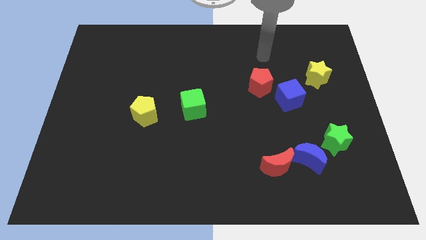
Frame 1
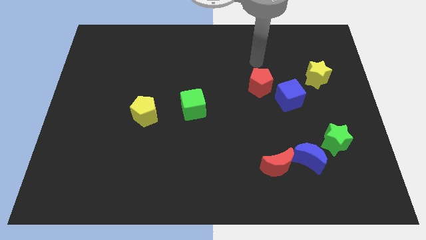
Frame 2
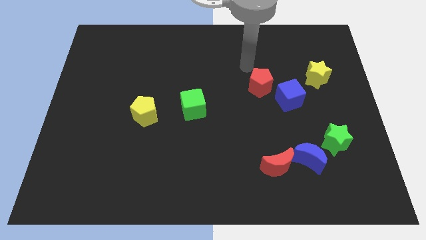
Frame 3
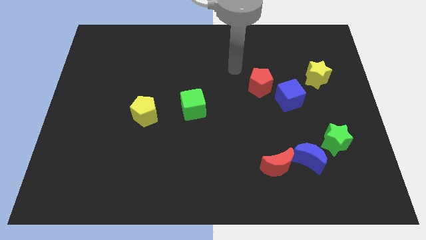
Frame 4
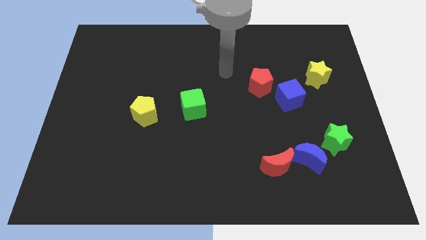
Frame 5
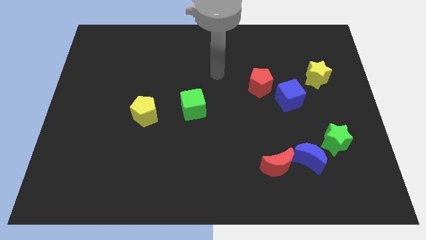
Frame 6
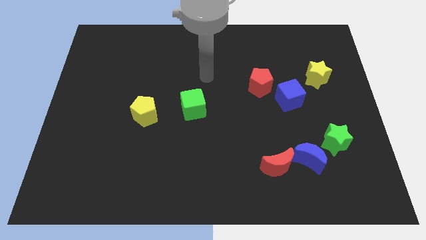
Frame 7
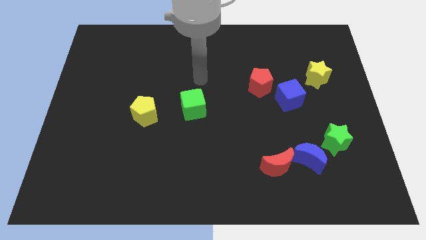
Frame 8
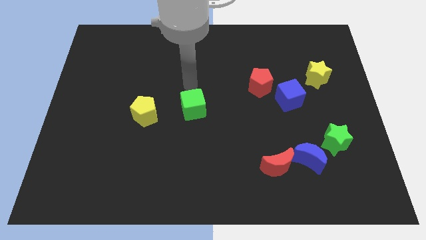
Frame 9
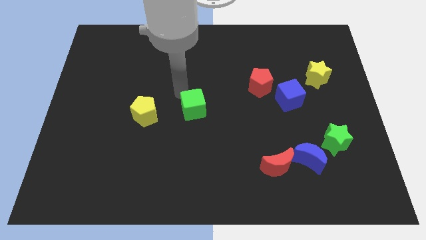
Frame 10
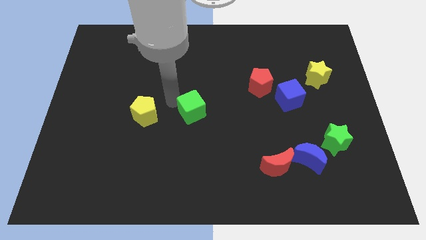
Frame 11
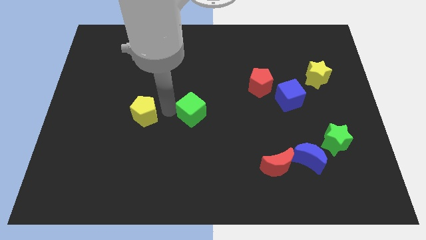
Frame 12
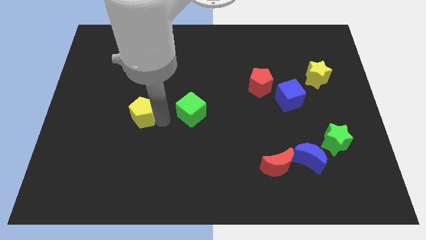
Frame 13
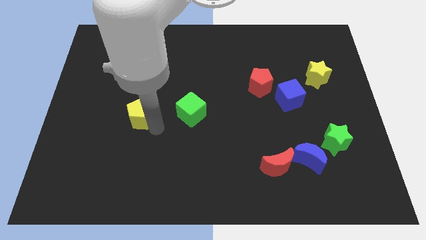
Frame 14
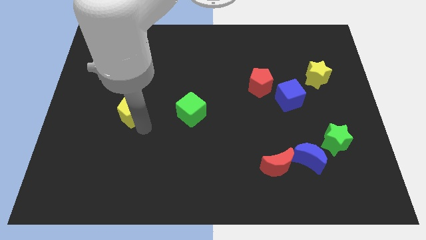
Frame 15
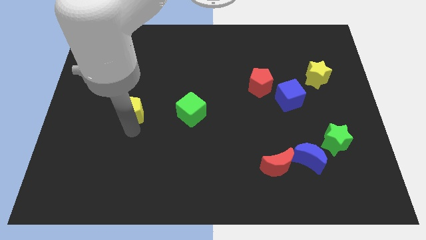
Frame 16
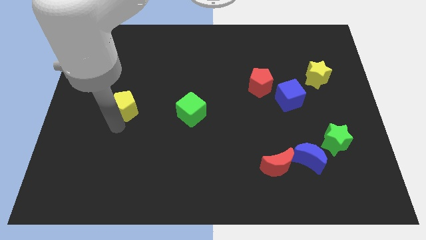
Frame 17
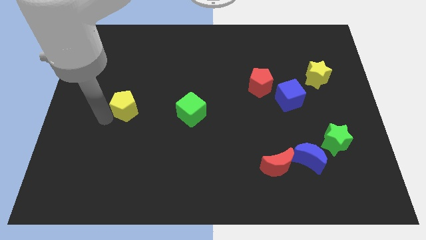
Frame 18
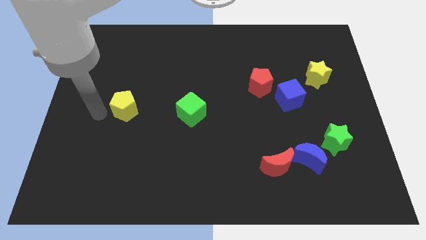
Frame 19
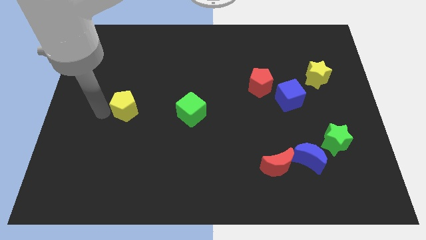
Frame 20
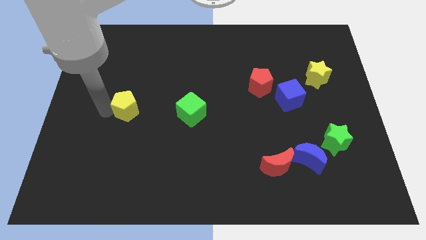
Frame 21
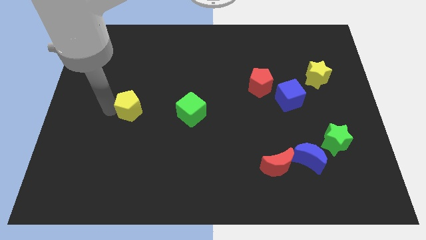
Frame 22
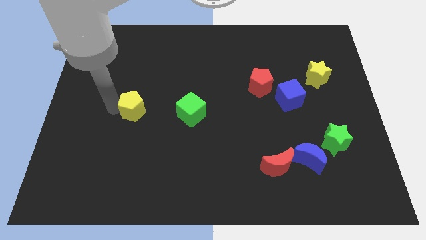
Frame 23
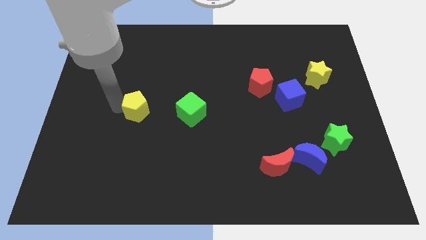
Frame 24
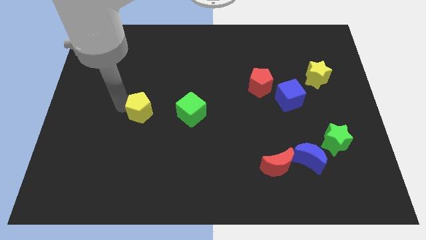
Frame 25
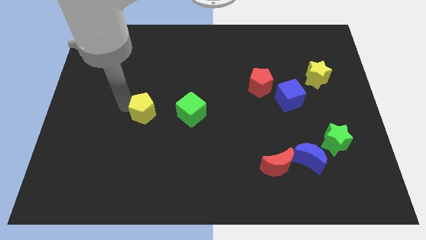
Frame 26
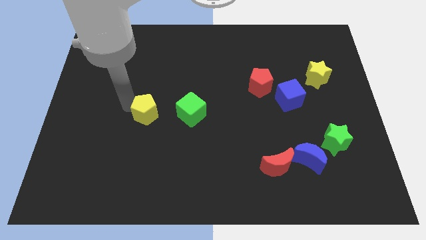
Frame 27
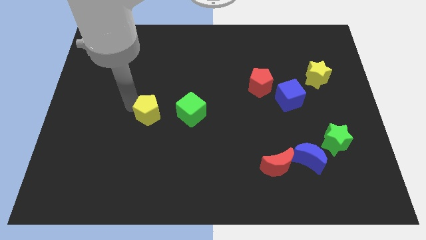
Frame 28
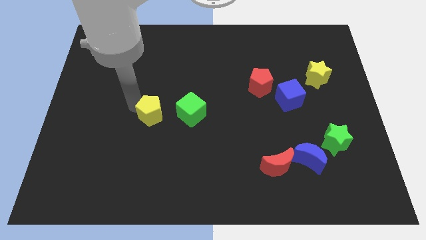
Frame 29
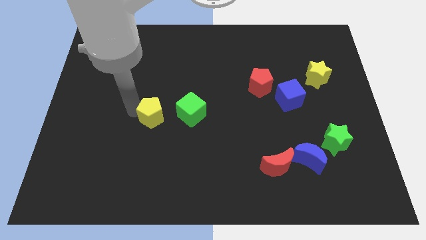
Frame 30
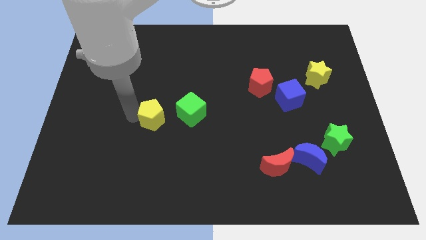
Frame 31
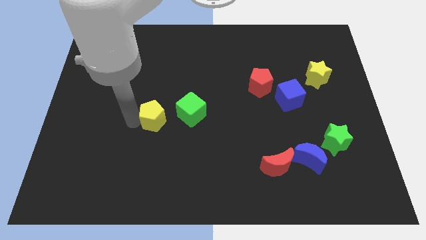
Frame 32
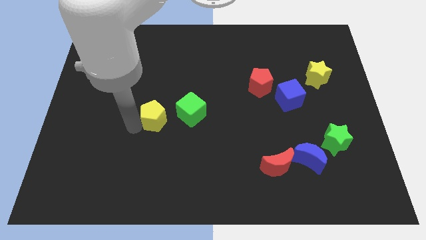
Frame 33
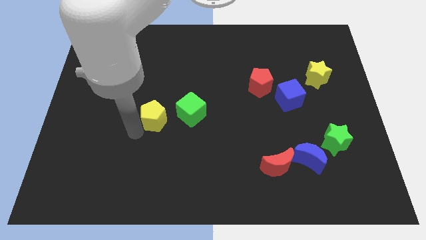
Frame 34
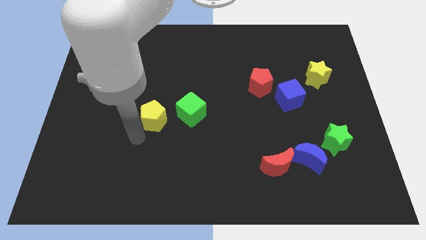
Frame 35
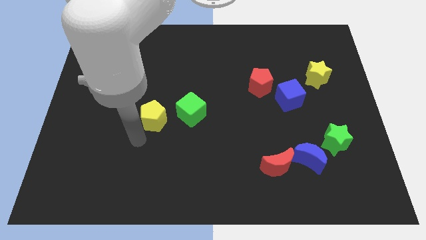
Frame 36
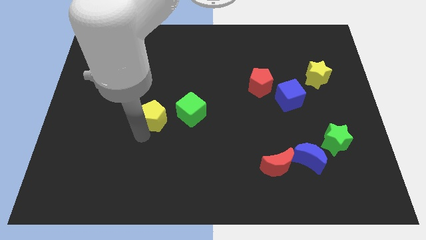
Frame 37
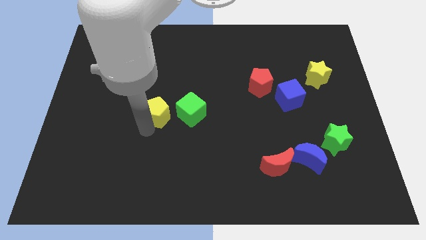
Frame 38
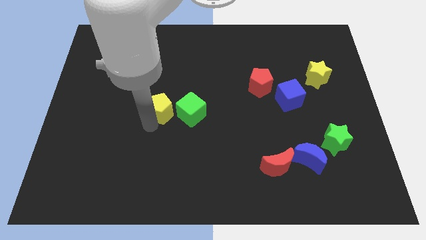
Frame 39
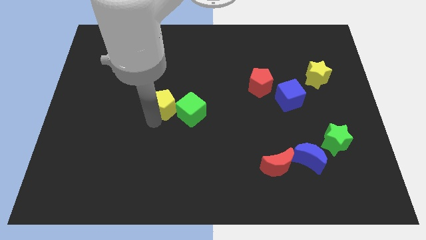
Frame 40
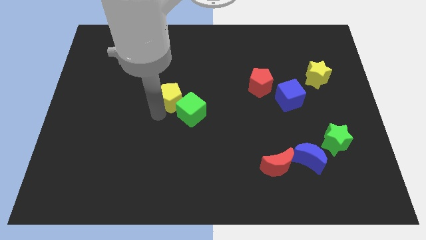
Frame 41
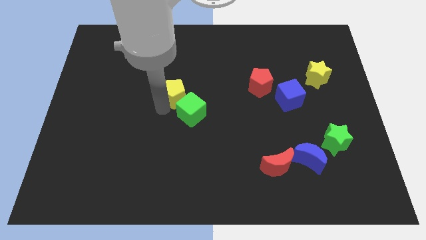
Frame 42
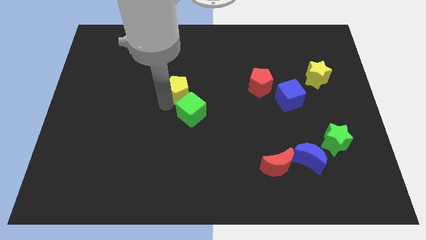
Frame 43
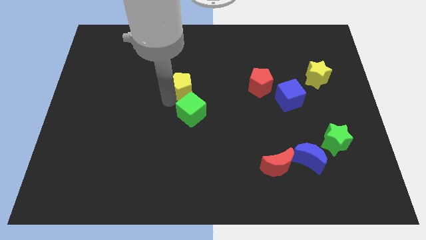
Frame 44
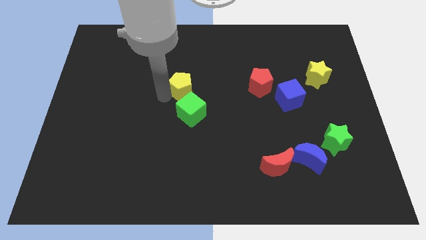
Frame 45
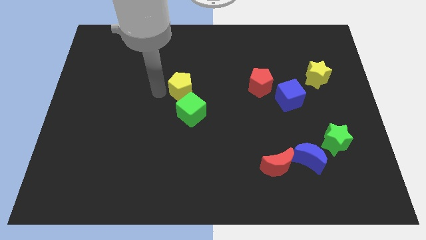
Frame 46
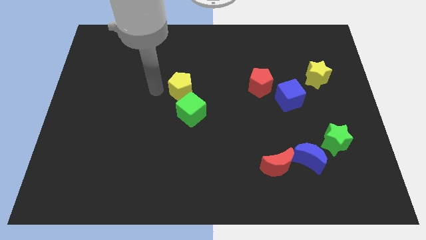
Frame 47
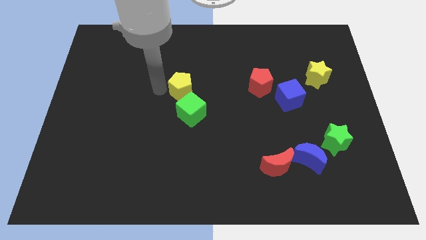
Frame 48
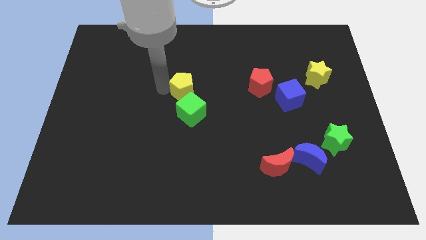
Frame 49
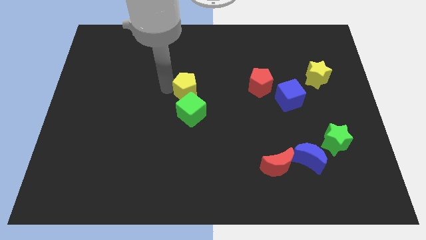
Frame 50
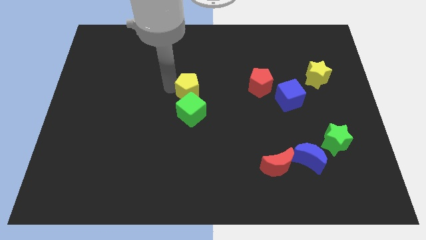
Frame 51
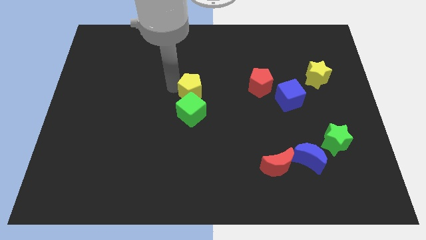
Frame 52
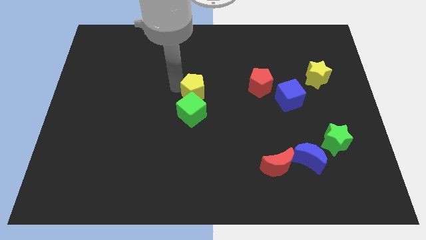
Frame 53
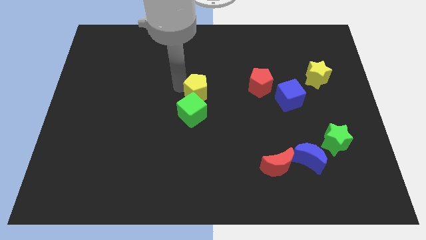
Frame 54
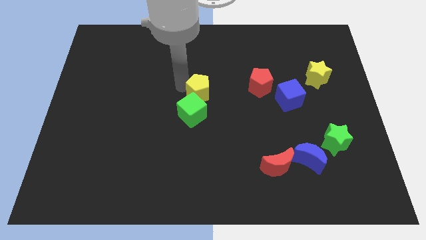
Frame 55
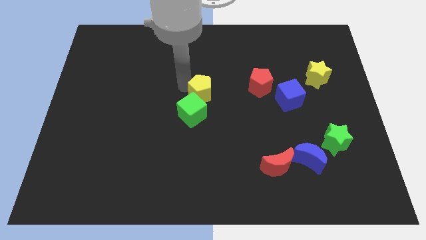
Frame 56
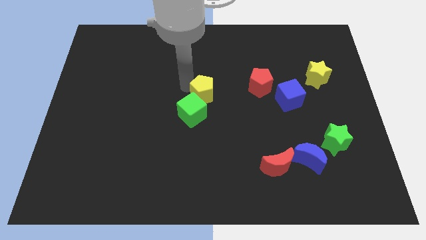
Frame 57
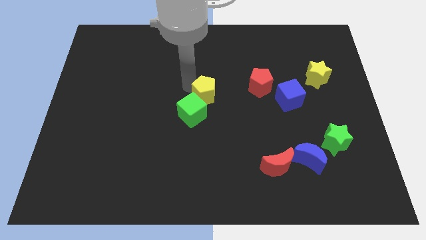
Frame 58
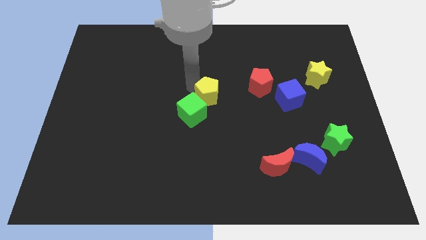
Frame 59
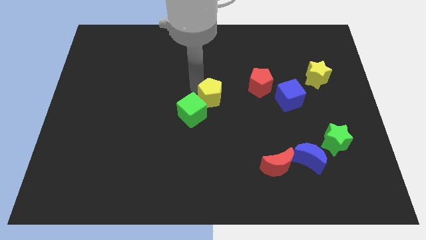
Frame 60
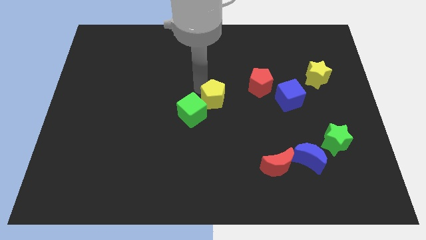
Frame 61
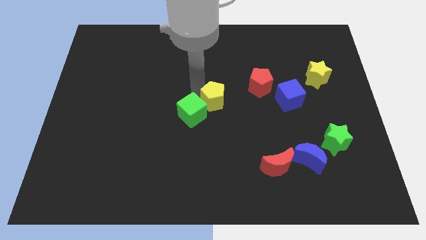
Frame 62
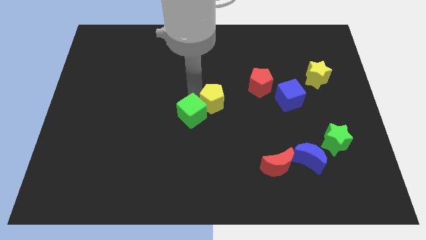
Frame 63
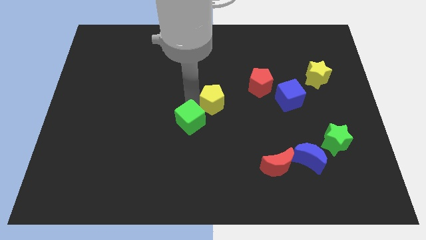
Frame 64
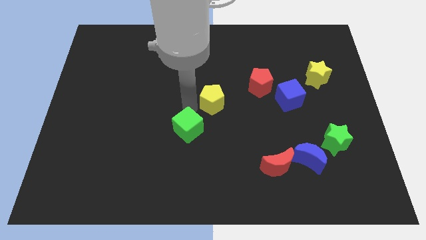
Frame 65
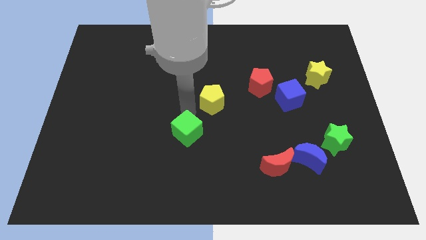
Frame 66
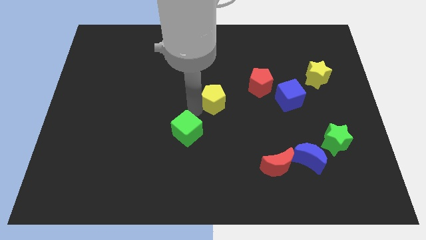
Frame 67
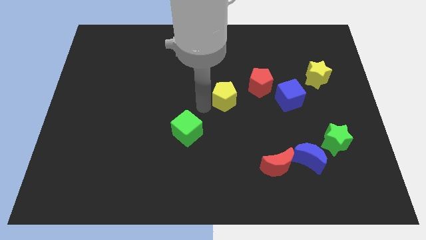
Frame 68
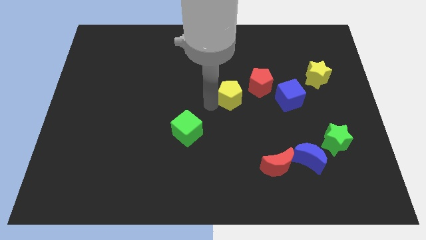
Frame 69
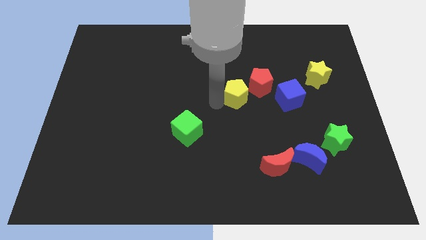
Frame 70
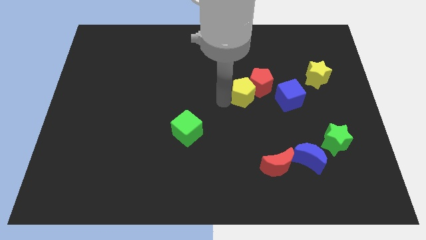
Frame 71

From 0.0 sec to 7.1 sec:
slide the yellow pentagon close to the red pentagon

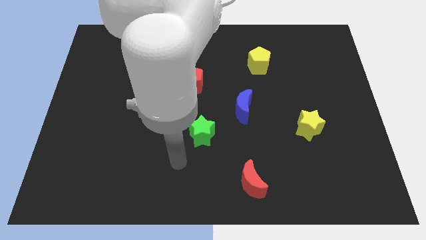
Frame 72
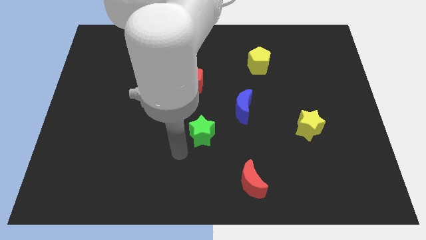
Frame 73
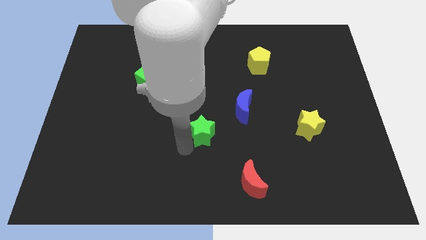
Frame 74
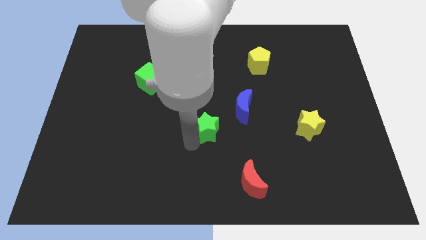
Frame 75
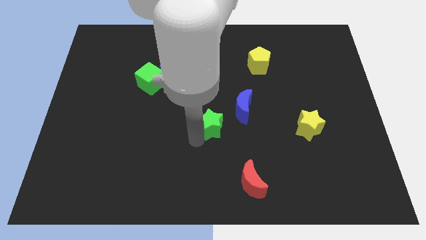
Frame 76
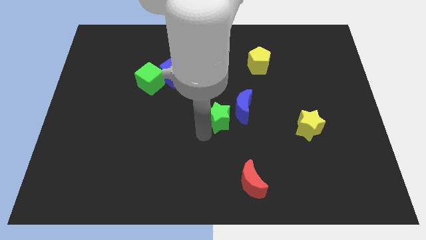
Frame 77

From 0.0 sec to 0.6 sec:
move the green star towards the blue moon
